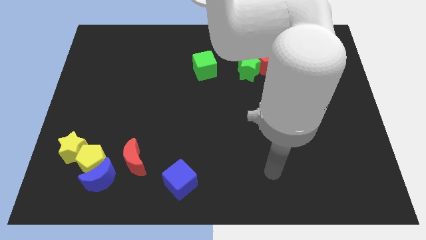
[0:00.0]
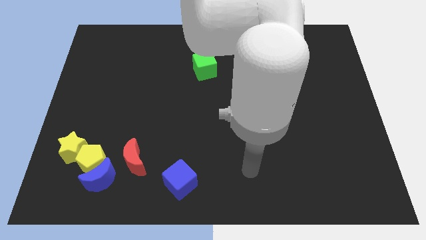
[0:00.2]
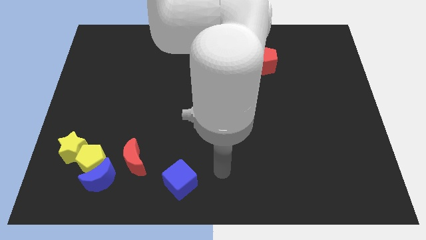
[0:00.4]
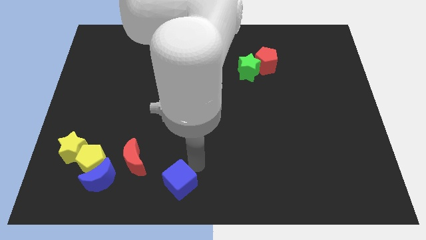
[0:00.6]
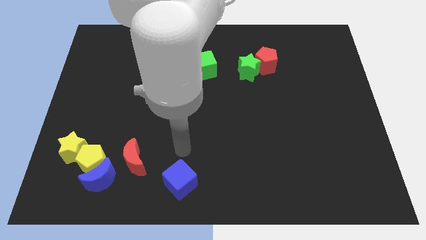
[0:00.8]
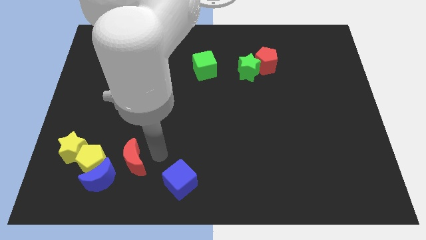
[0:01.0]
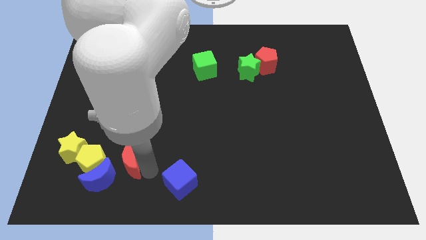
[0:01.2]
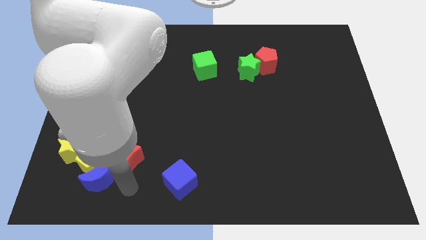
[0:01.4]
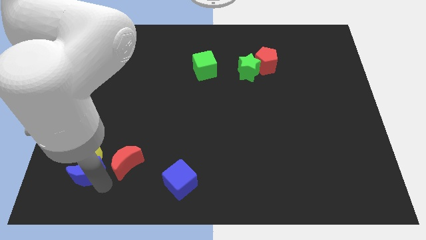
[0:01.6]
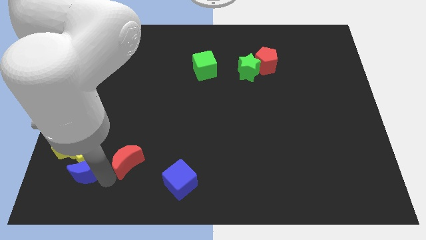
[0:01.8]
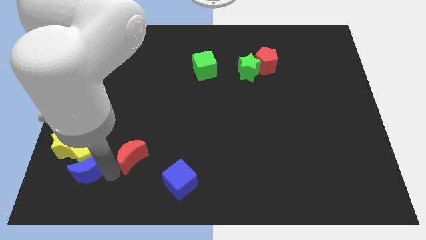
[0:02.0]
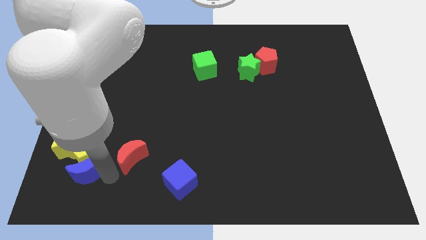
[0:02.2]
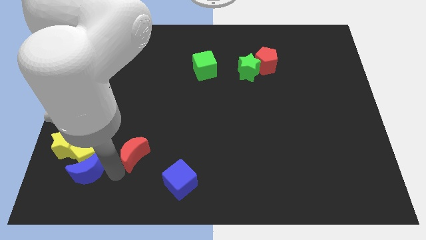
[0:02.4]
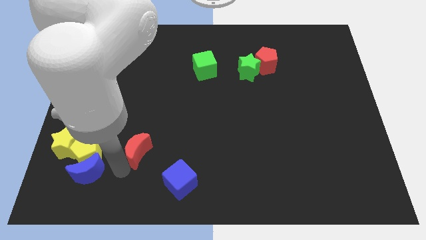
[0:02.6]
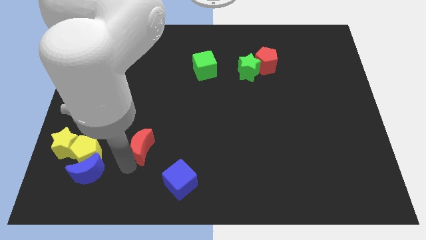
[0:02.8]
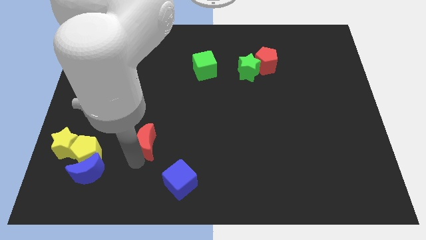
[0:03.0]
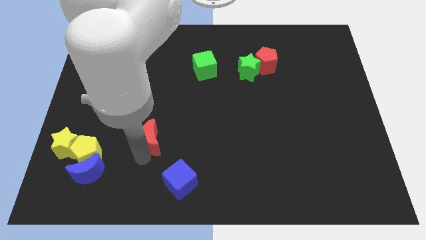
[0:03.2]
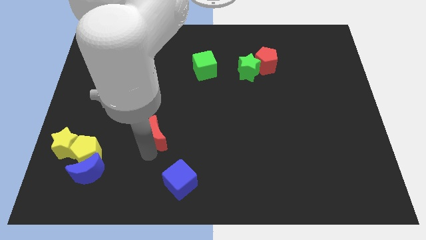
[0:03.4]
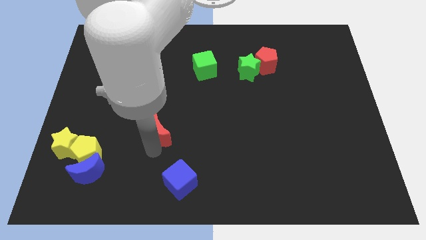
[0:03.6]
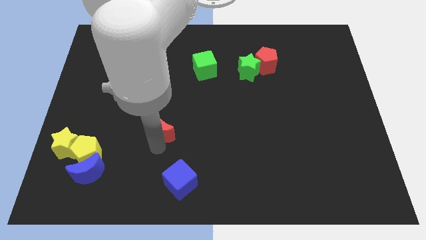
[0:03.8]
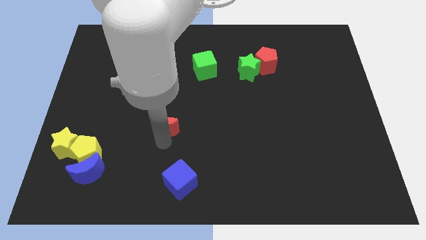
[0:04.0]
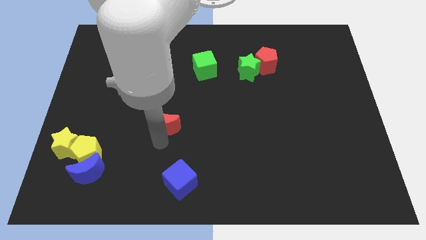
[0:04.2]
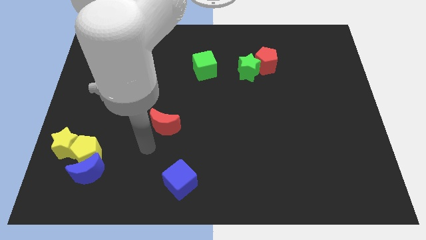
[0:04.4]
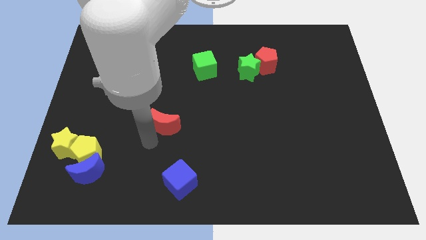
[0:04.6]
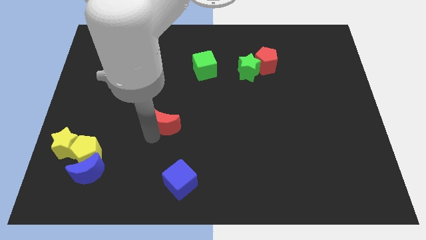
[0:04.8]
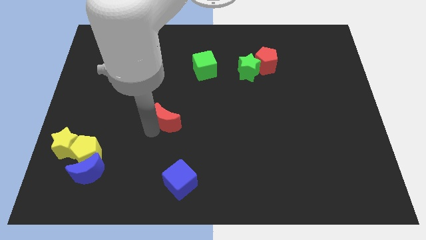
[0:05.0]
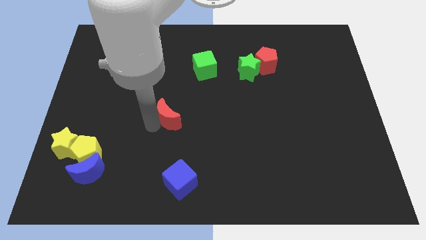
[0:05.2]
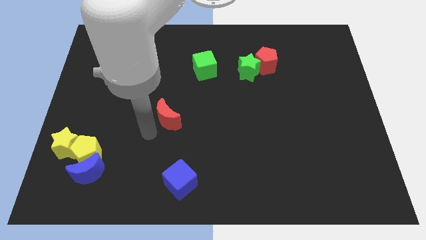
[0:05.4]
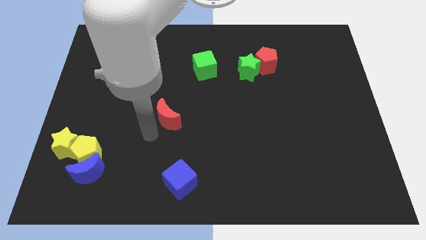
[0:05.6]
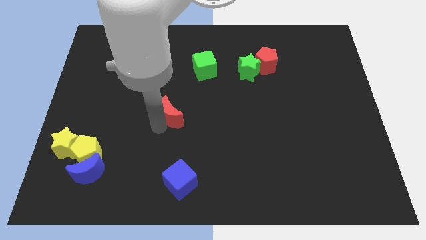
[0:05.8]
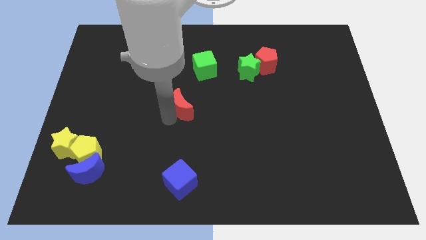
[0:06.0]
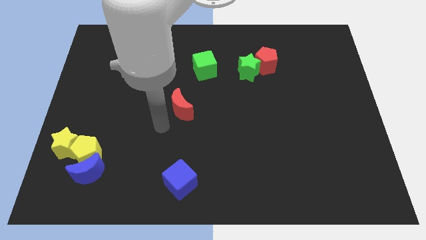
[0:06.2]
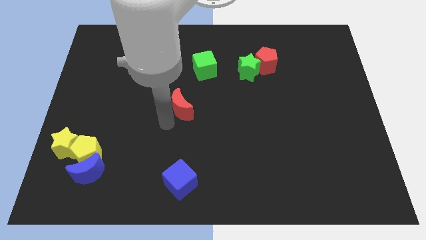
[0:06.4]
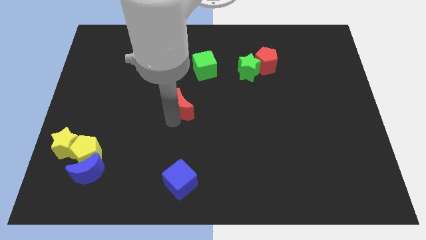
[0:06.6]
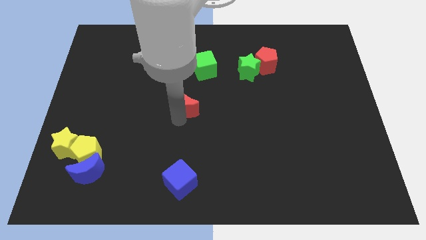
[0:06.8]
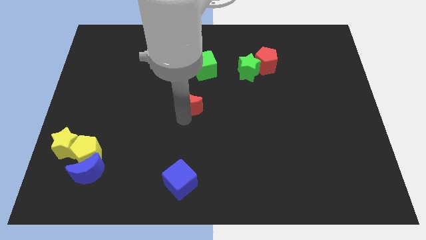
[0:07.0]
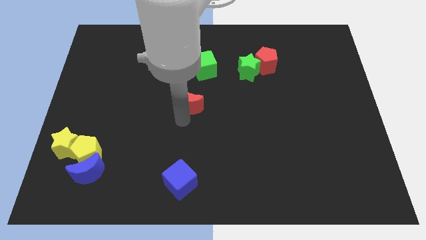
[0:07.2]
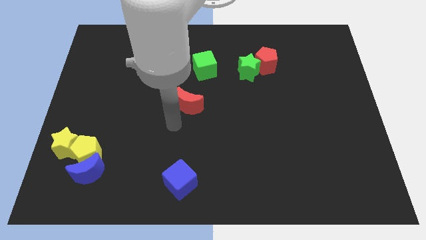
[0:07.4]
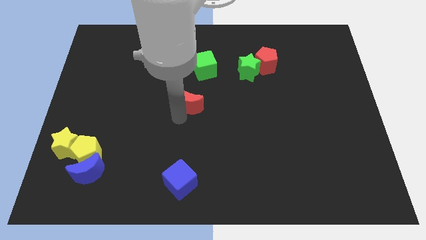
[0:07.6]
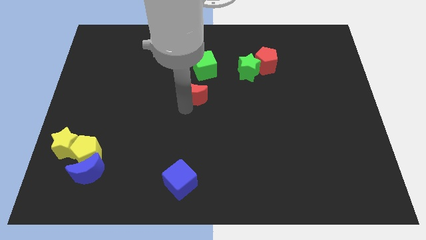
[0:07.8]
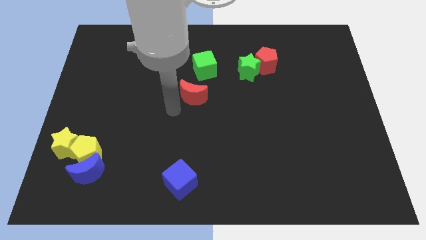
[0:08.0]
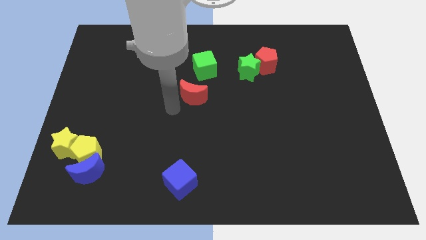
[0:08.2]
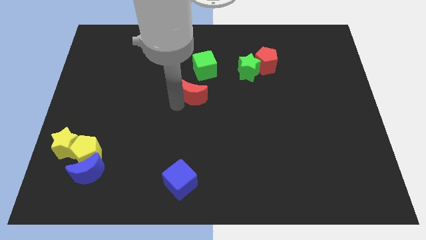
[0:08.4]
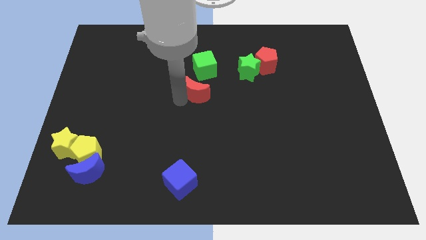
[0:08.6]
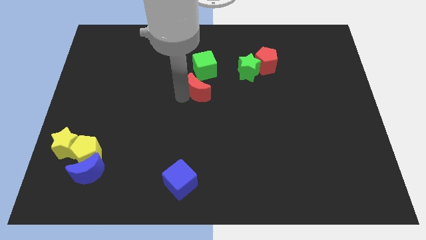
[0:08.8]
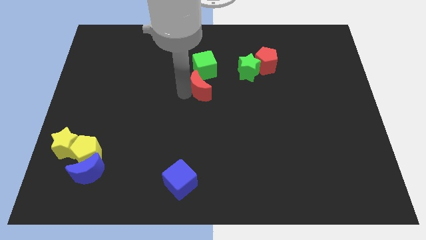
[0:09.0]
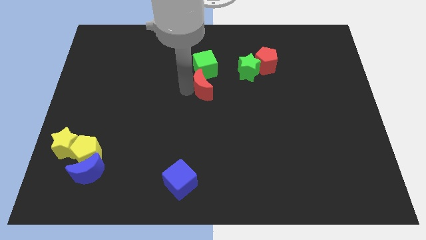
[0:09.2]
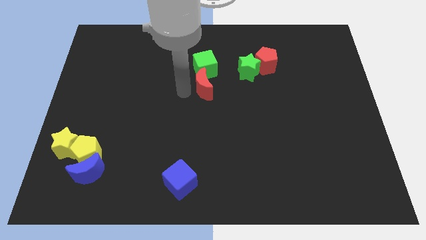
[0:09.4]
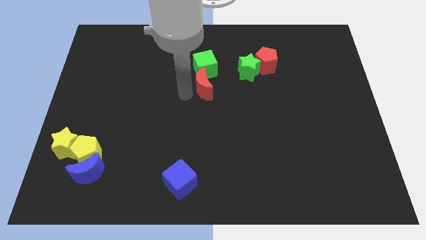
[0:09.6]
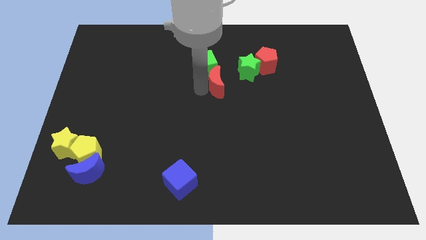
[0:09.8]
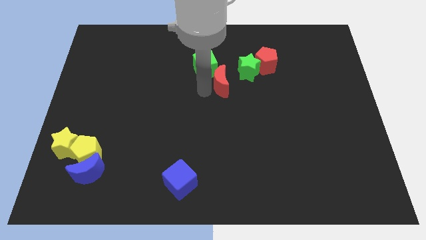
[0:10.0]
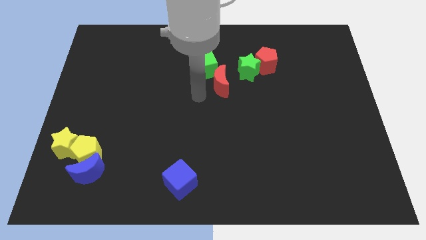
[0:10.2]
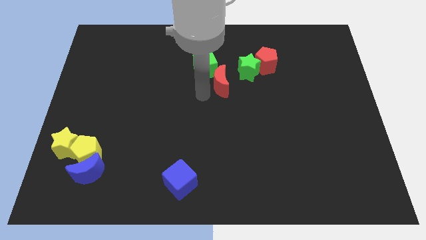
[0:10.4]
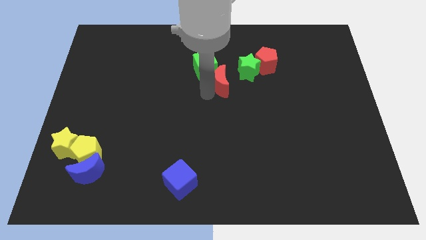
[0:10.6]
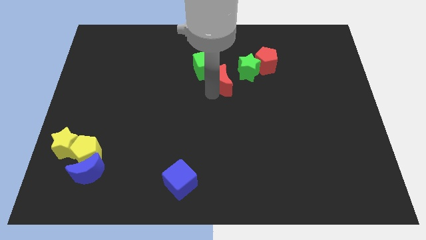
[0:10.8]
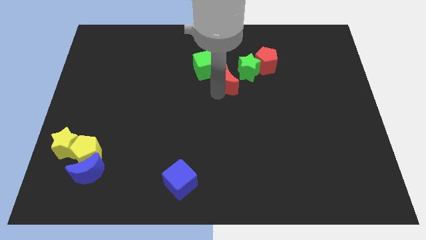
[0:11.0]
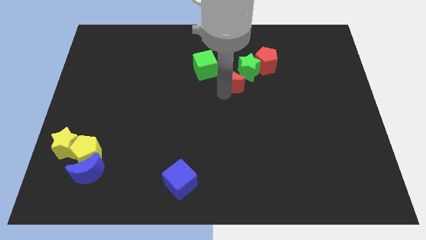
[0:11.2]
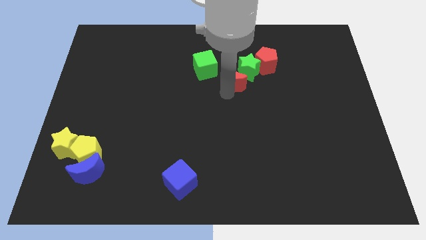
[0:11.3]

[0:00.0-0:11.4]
move the red moon next to the green star
